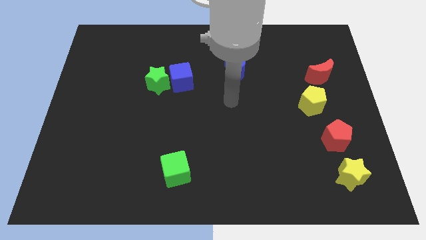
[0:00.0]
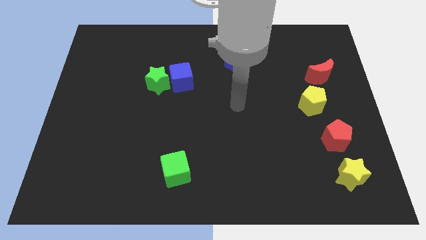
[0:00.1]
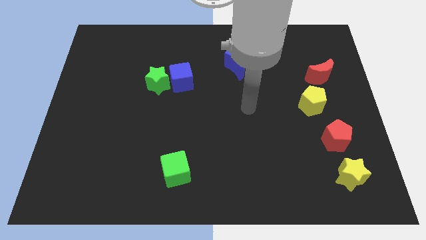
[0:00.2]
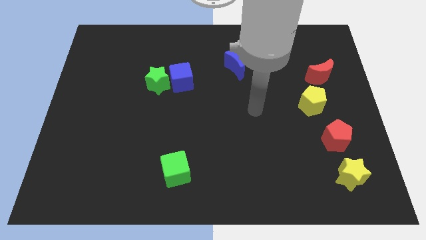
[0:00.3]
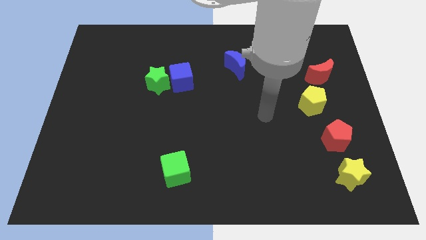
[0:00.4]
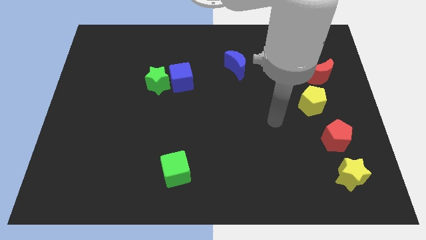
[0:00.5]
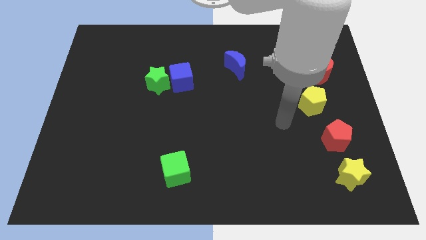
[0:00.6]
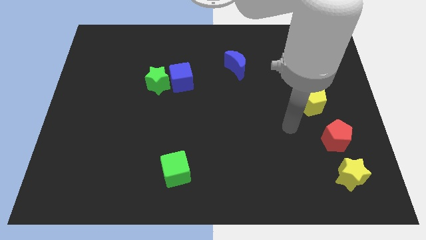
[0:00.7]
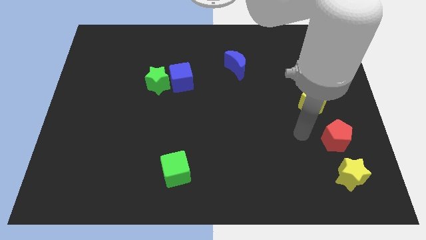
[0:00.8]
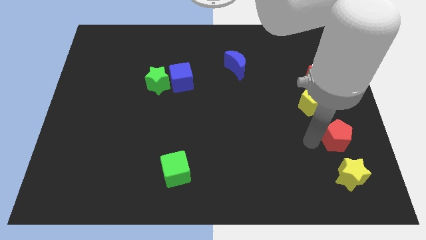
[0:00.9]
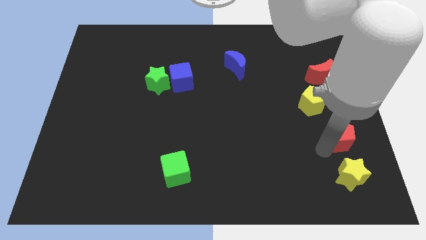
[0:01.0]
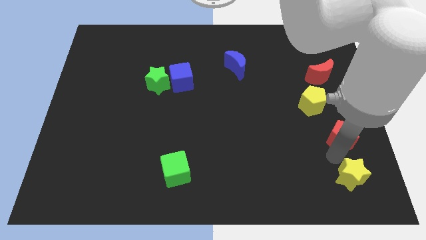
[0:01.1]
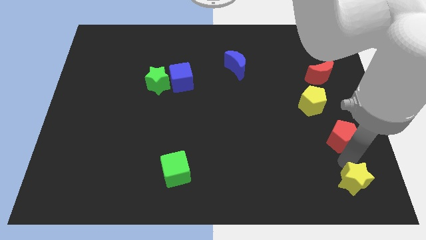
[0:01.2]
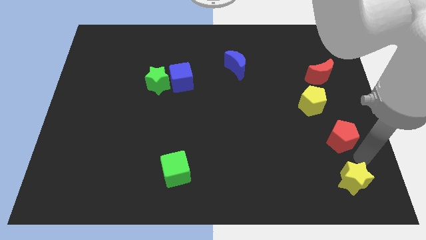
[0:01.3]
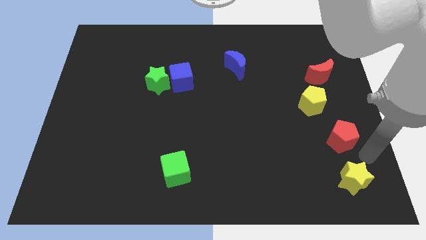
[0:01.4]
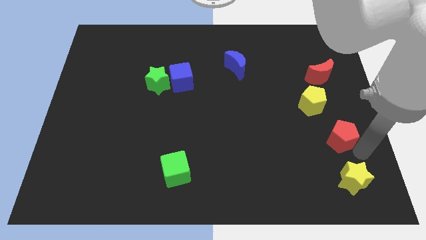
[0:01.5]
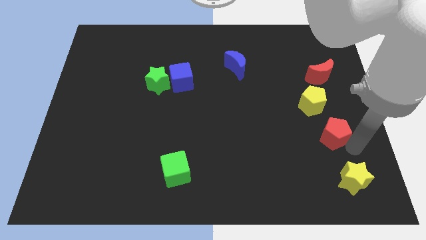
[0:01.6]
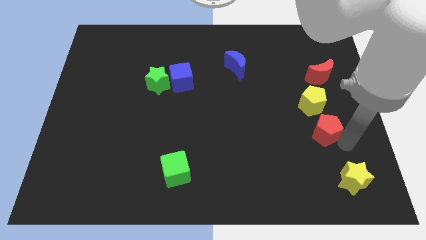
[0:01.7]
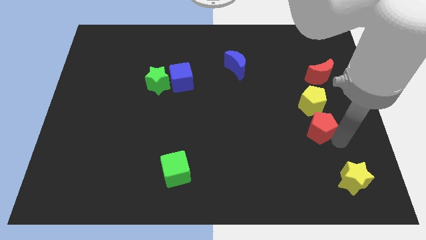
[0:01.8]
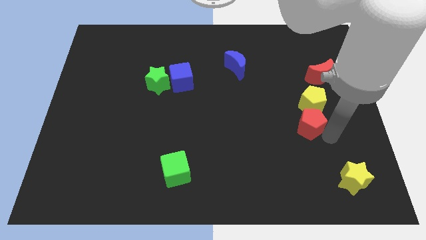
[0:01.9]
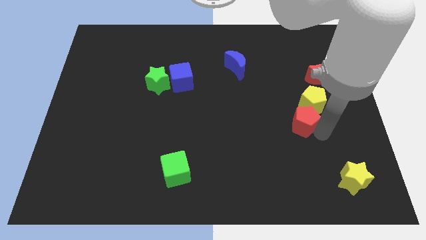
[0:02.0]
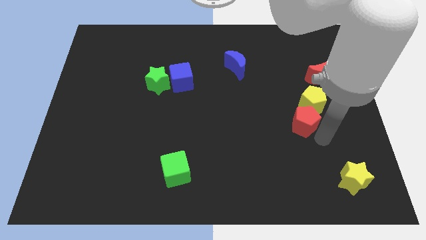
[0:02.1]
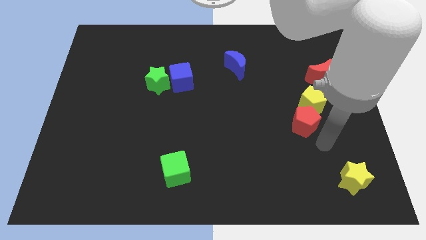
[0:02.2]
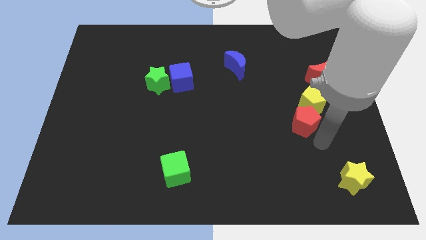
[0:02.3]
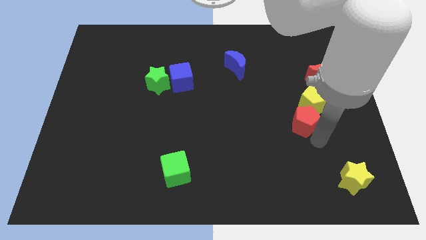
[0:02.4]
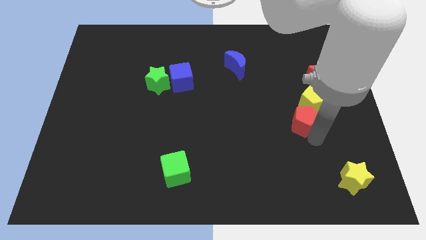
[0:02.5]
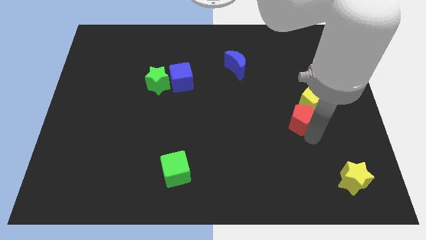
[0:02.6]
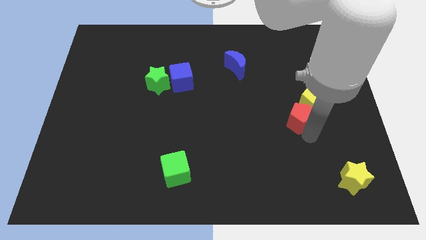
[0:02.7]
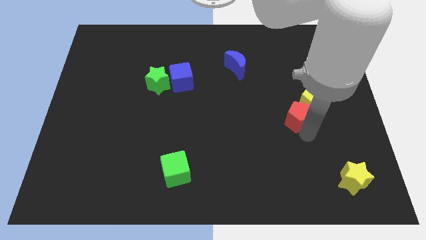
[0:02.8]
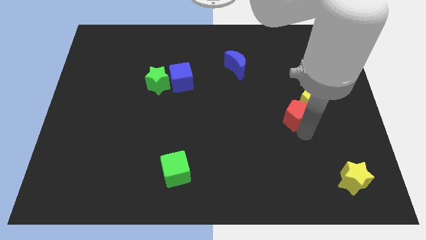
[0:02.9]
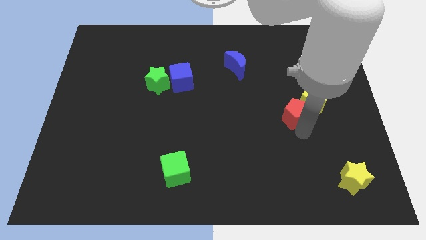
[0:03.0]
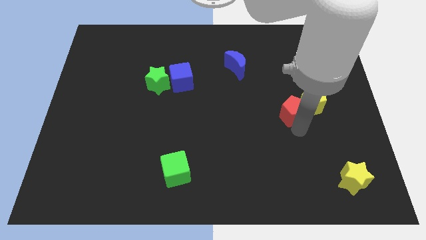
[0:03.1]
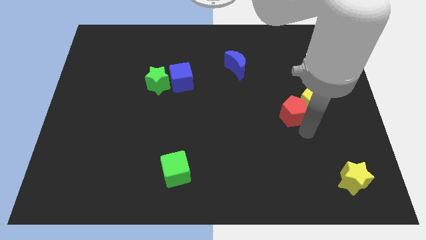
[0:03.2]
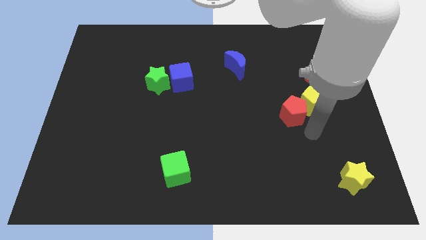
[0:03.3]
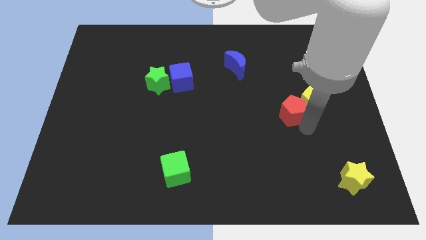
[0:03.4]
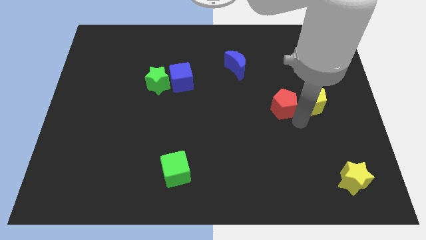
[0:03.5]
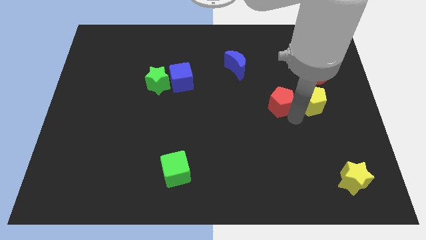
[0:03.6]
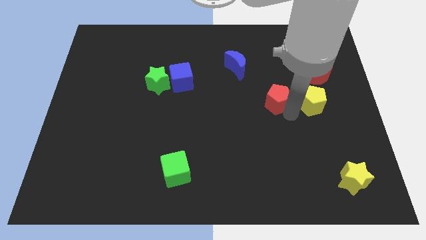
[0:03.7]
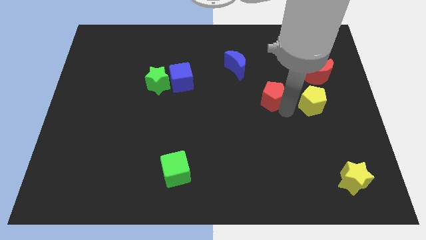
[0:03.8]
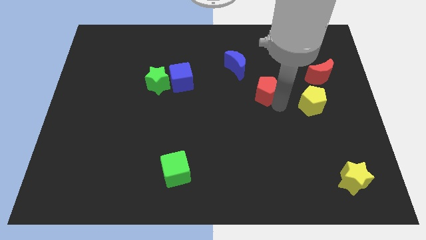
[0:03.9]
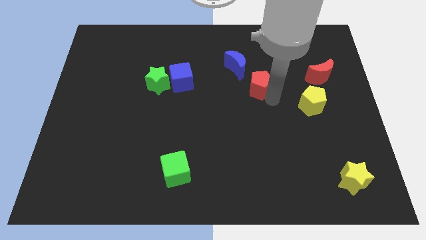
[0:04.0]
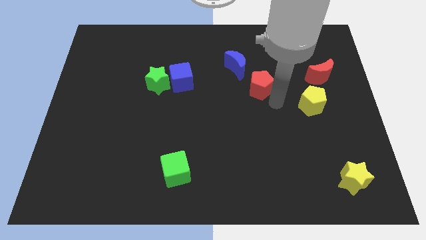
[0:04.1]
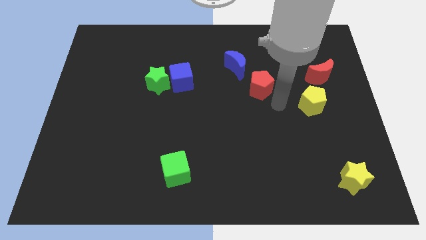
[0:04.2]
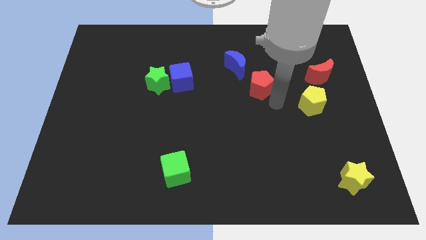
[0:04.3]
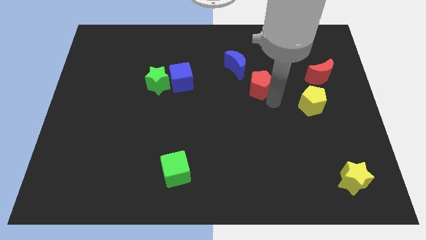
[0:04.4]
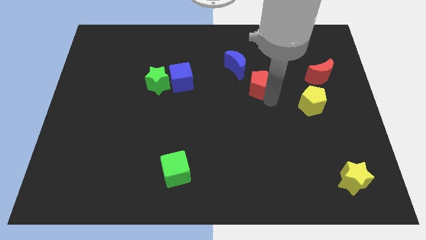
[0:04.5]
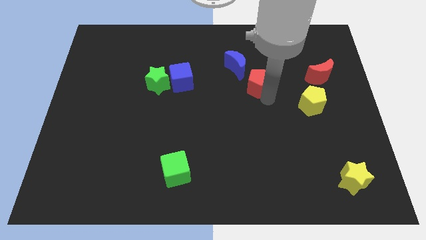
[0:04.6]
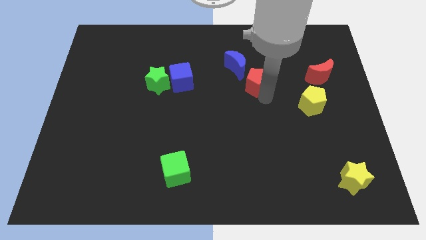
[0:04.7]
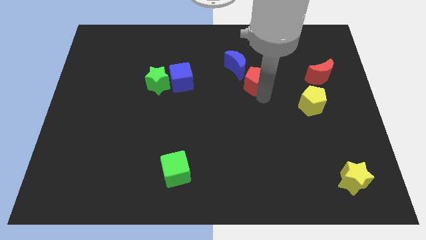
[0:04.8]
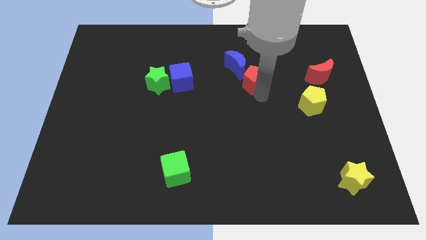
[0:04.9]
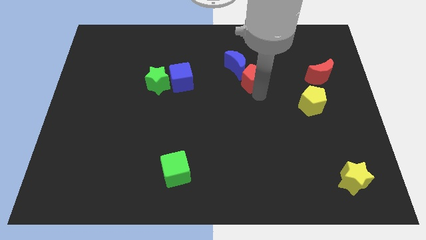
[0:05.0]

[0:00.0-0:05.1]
slide the red pentagon close to the blue moon

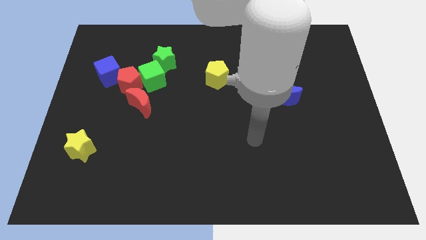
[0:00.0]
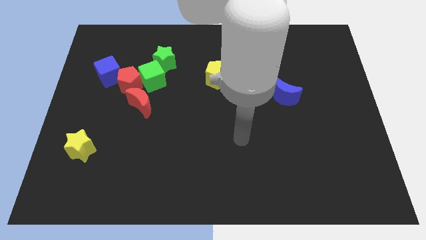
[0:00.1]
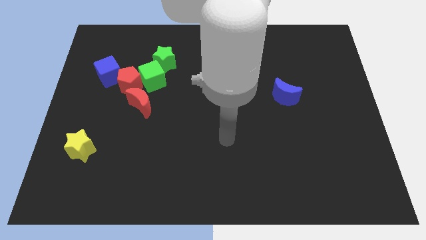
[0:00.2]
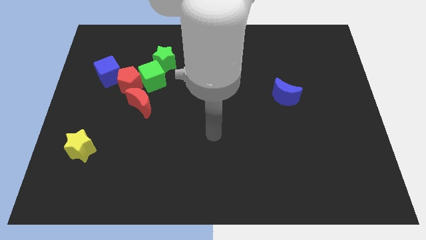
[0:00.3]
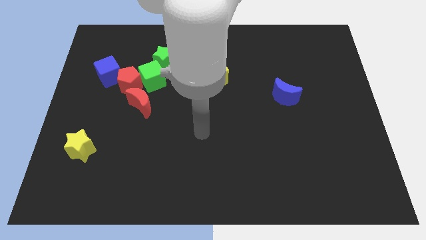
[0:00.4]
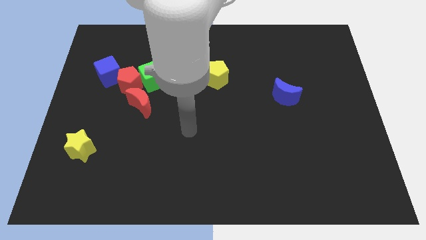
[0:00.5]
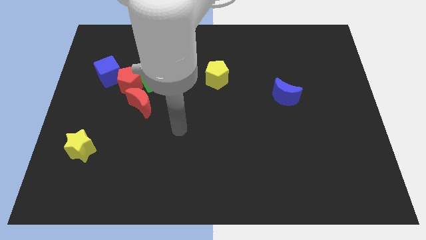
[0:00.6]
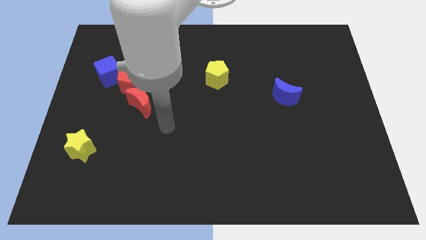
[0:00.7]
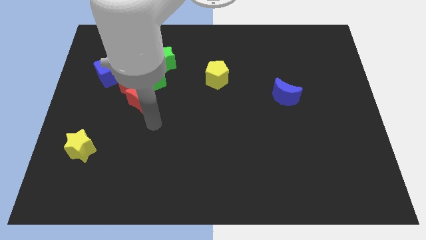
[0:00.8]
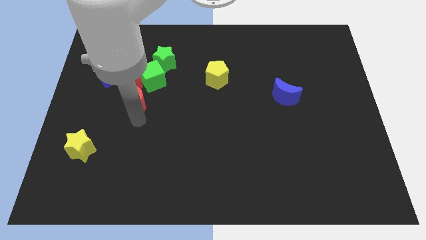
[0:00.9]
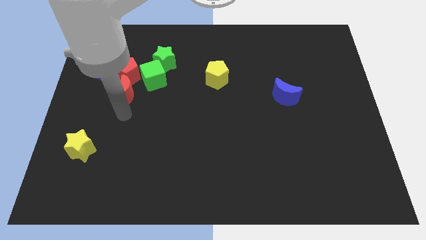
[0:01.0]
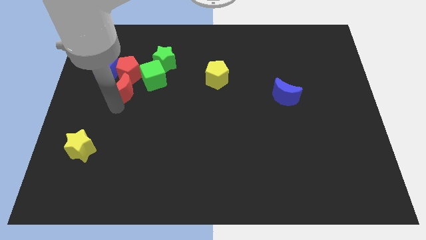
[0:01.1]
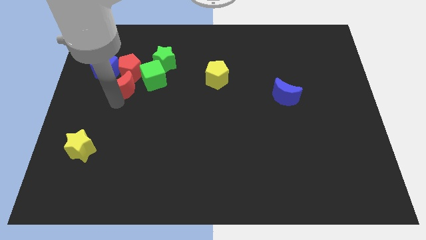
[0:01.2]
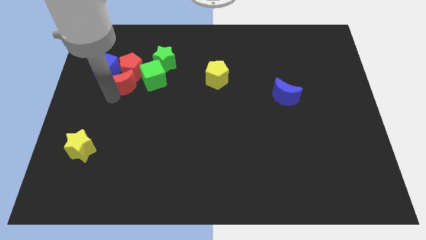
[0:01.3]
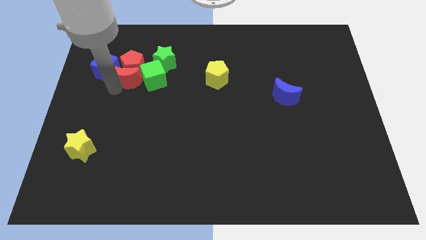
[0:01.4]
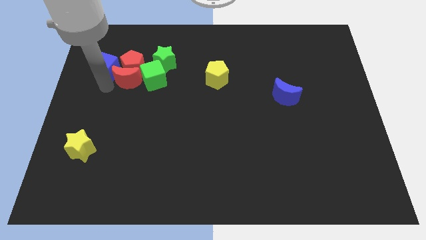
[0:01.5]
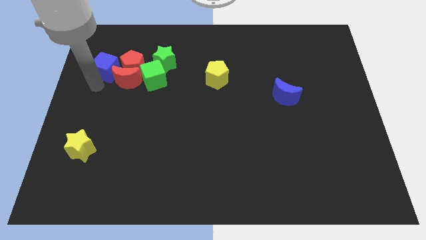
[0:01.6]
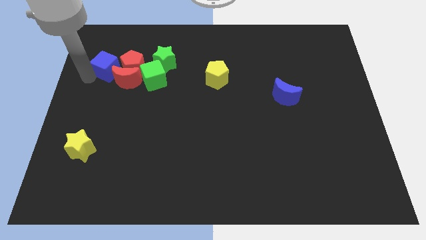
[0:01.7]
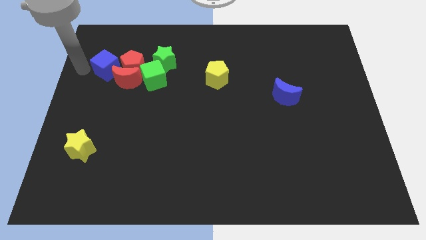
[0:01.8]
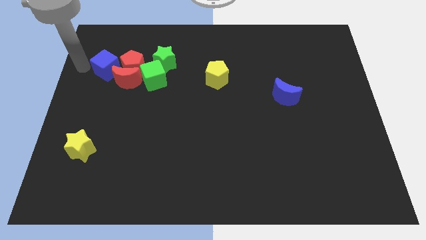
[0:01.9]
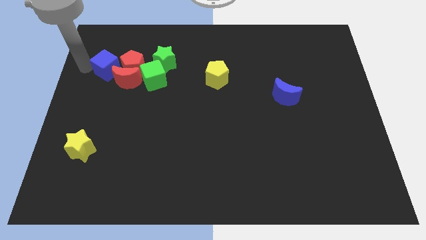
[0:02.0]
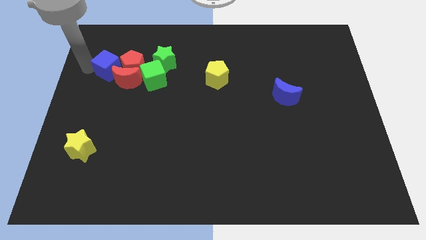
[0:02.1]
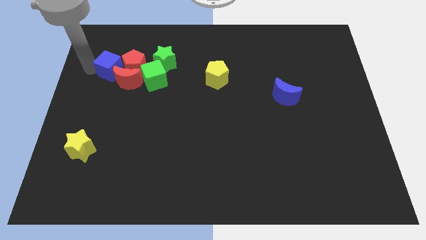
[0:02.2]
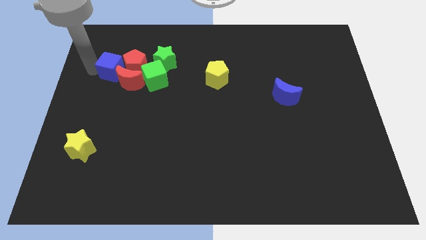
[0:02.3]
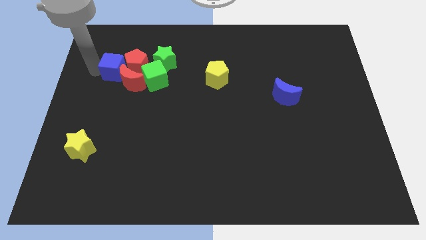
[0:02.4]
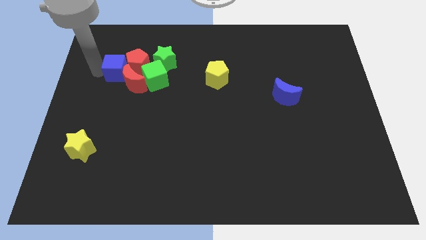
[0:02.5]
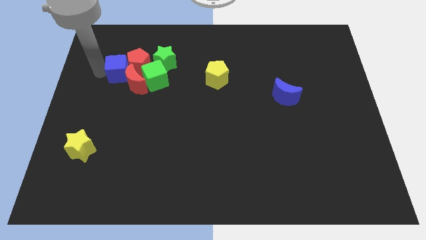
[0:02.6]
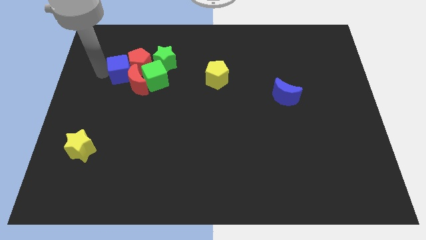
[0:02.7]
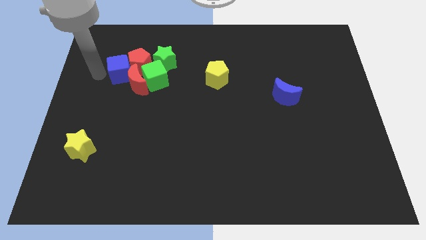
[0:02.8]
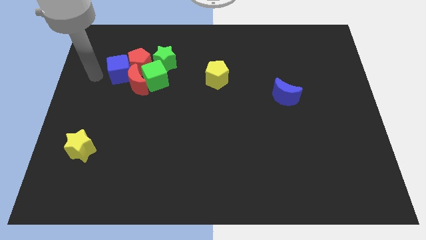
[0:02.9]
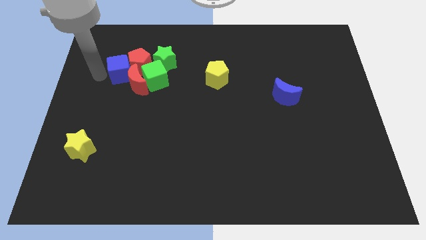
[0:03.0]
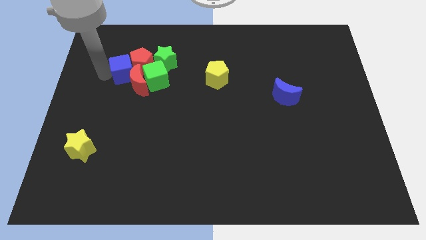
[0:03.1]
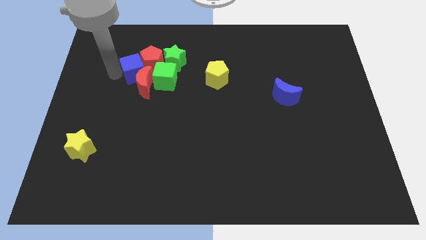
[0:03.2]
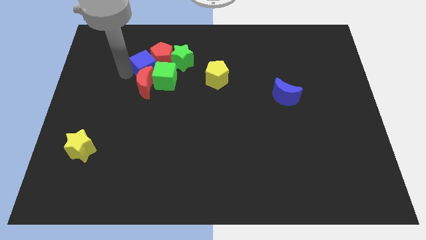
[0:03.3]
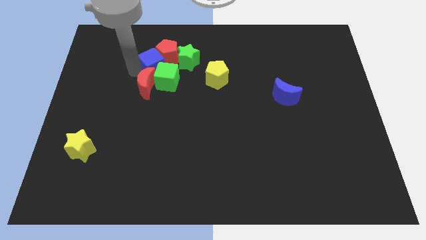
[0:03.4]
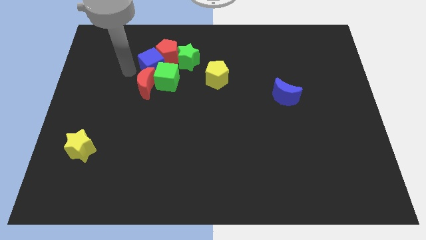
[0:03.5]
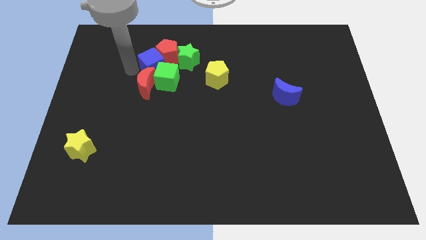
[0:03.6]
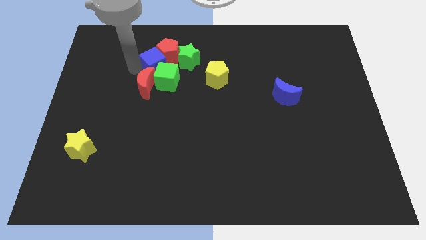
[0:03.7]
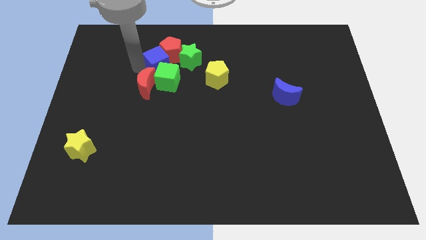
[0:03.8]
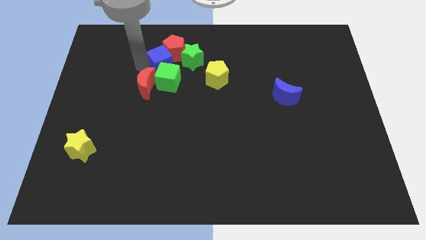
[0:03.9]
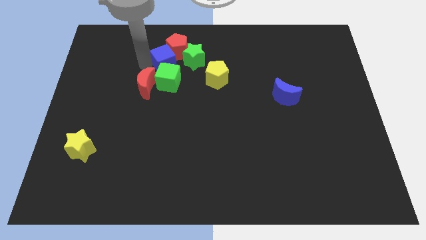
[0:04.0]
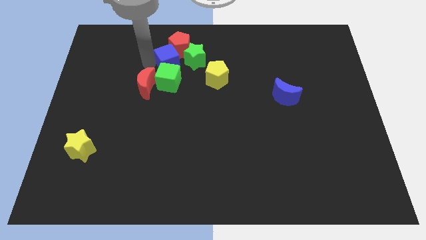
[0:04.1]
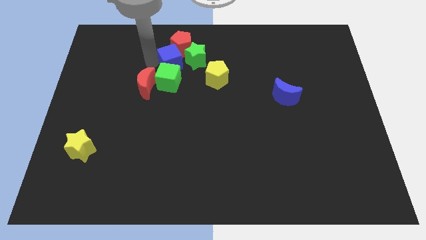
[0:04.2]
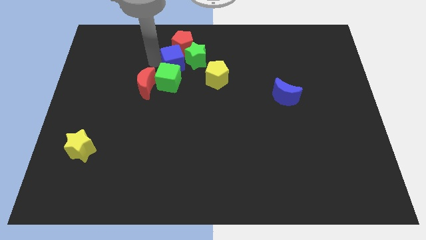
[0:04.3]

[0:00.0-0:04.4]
slide the blue cube close to the green star
